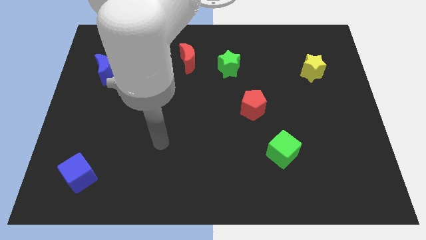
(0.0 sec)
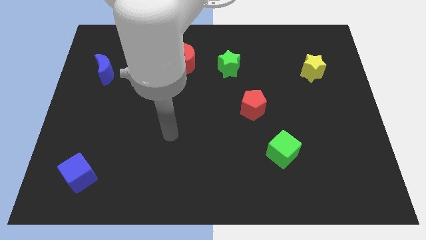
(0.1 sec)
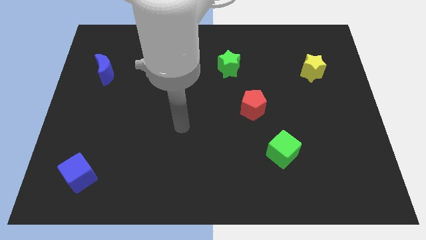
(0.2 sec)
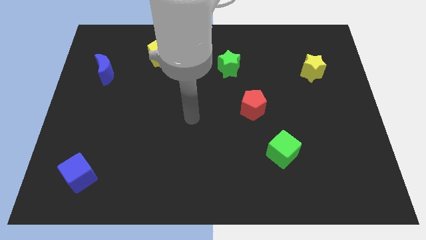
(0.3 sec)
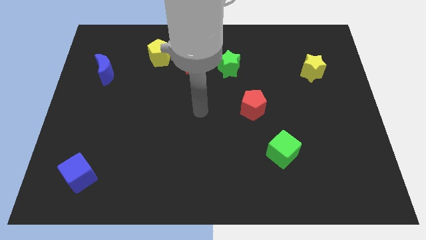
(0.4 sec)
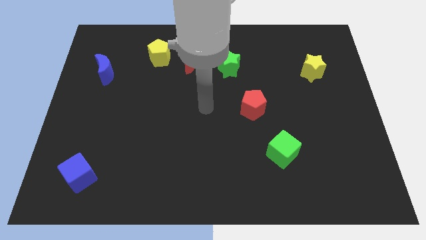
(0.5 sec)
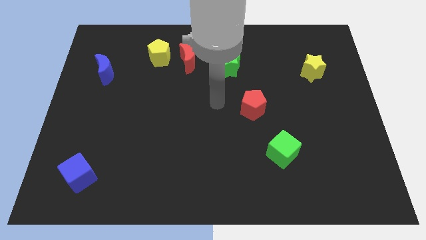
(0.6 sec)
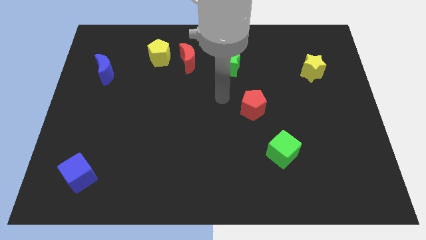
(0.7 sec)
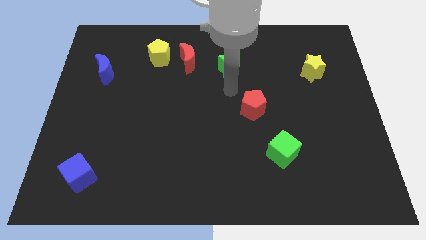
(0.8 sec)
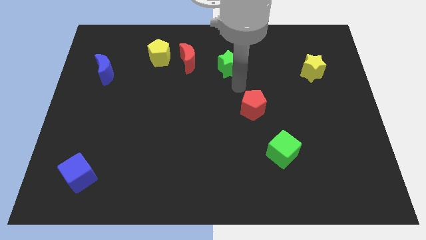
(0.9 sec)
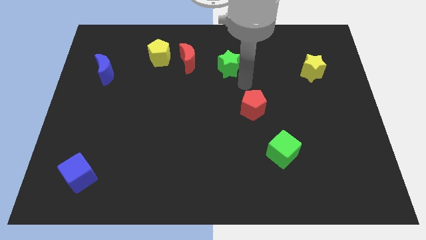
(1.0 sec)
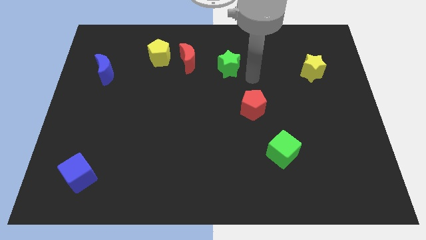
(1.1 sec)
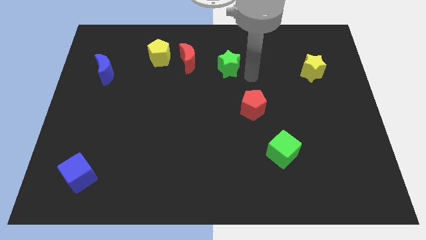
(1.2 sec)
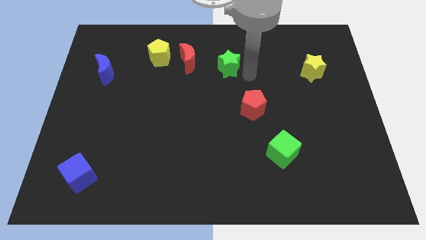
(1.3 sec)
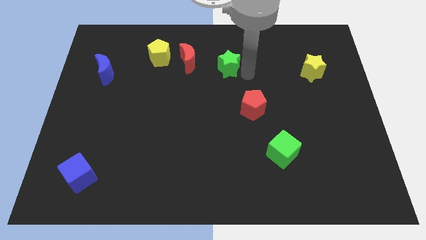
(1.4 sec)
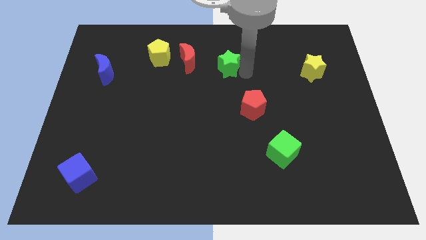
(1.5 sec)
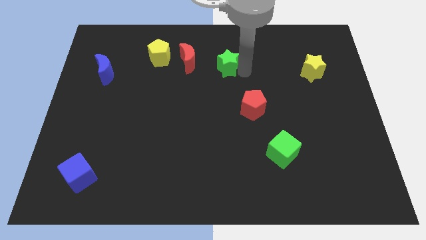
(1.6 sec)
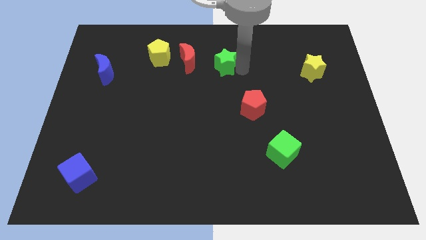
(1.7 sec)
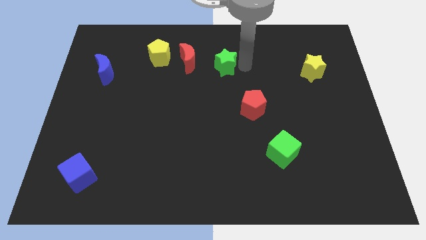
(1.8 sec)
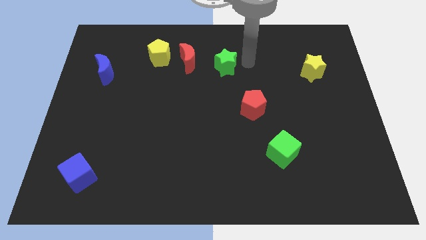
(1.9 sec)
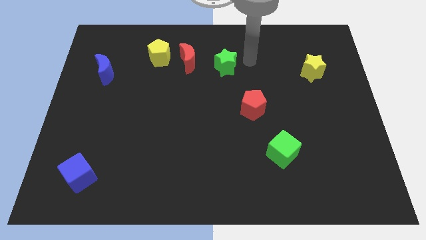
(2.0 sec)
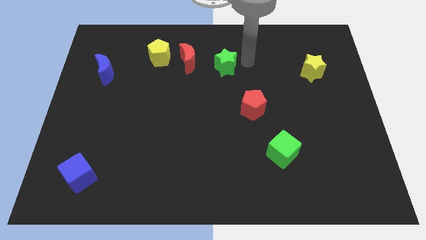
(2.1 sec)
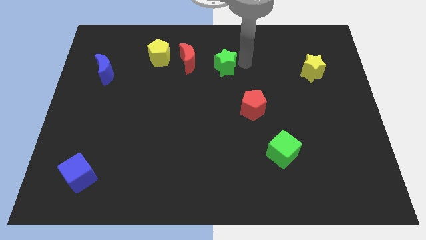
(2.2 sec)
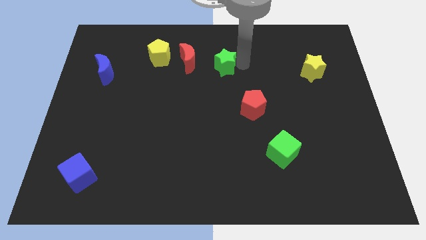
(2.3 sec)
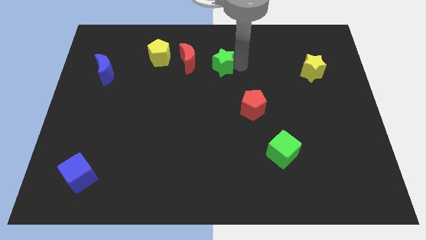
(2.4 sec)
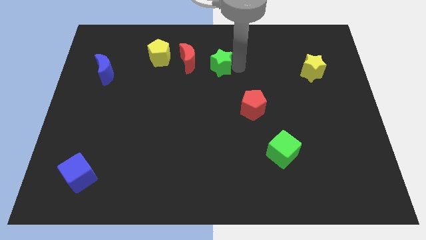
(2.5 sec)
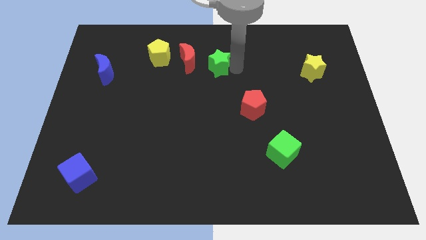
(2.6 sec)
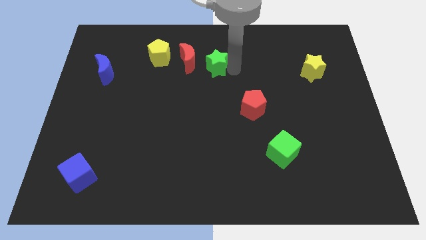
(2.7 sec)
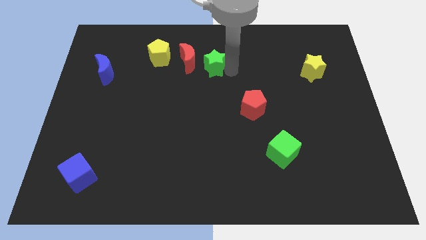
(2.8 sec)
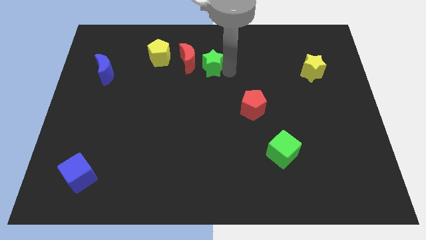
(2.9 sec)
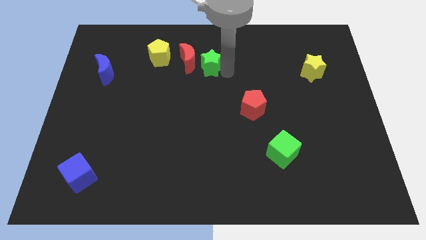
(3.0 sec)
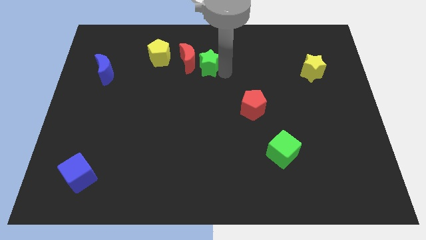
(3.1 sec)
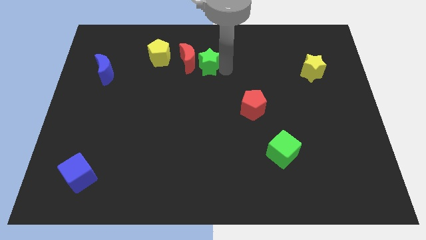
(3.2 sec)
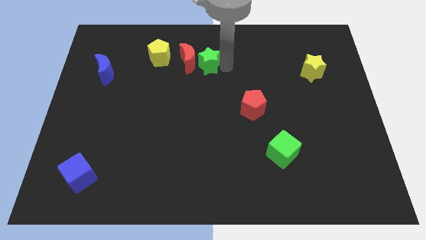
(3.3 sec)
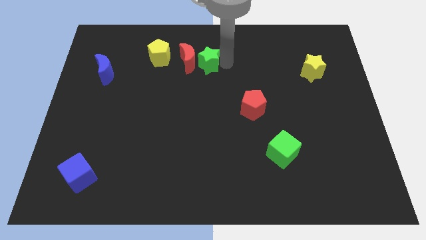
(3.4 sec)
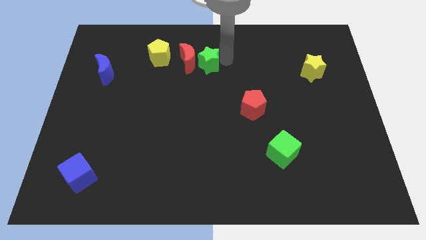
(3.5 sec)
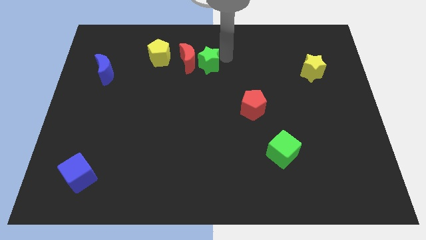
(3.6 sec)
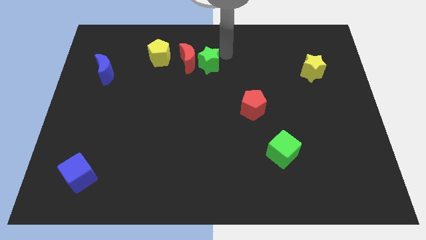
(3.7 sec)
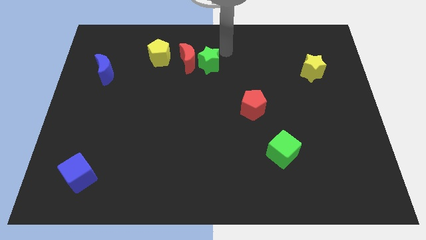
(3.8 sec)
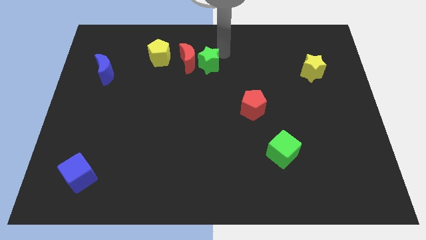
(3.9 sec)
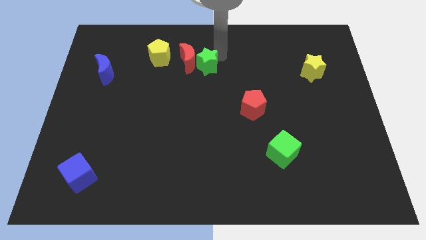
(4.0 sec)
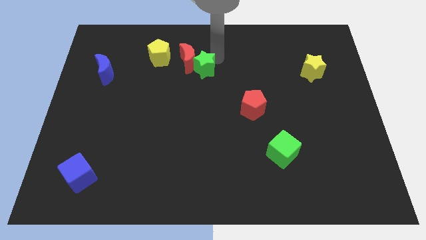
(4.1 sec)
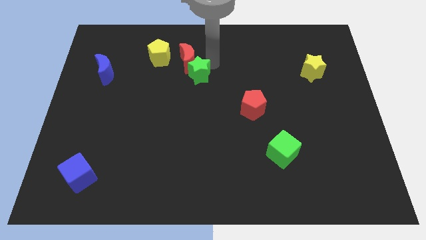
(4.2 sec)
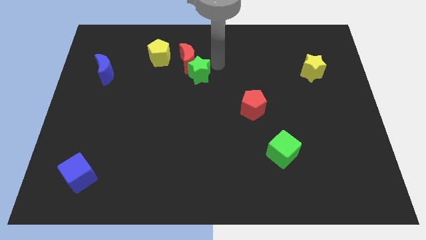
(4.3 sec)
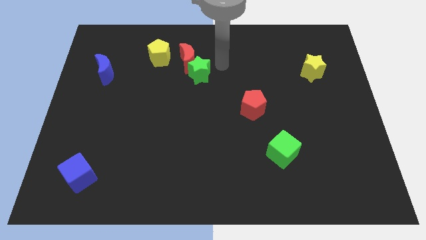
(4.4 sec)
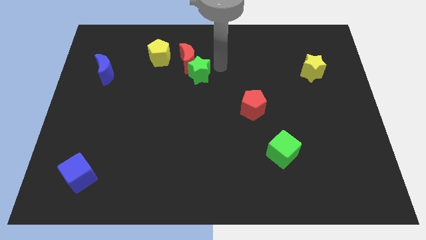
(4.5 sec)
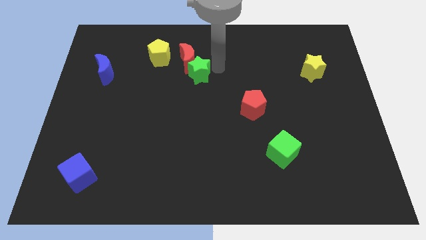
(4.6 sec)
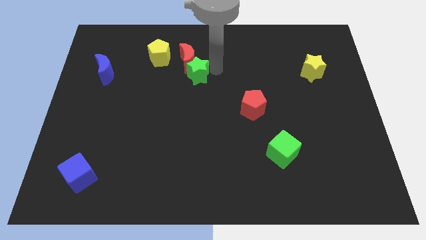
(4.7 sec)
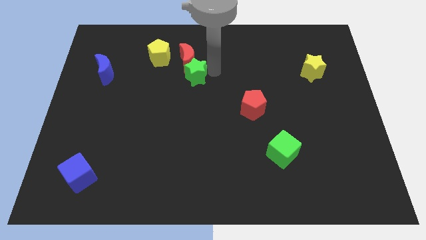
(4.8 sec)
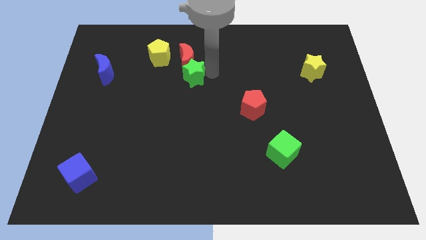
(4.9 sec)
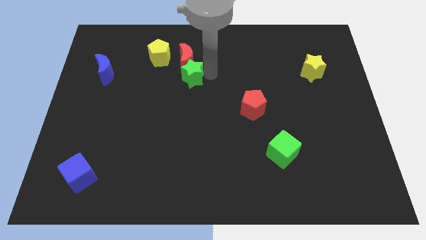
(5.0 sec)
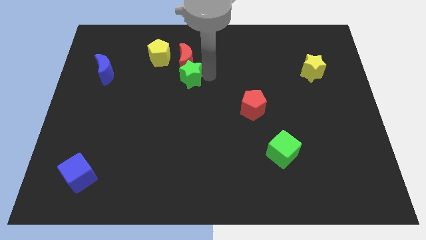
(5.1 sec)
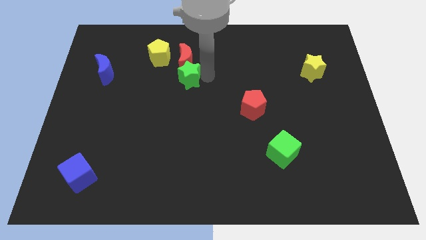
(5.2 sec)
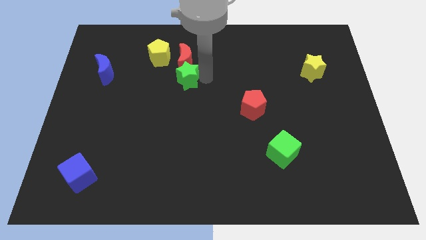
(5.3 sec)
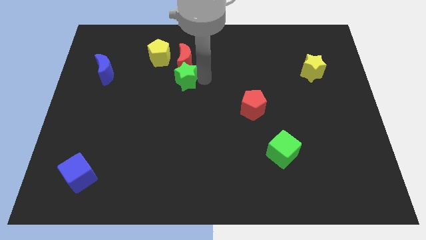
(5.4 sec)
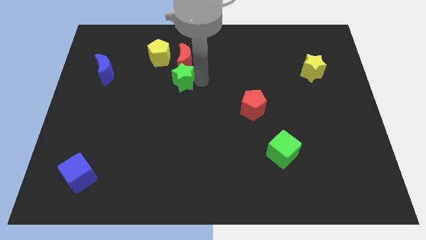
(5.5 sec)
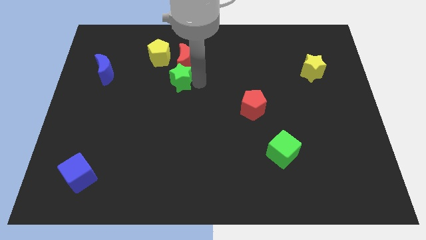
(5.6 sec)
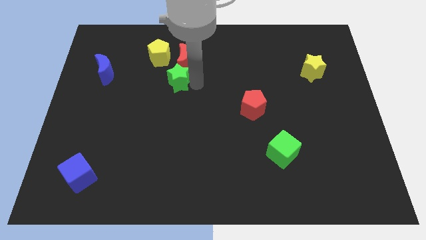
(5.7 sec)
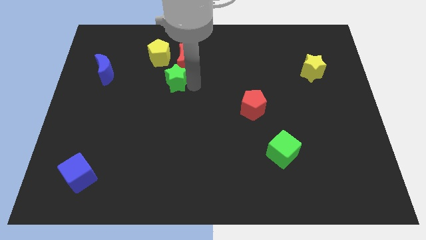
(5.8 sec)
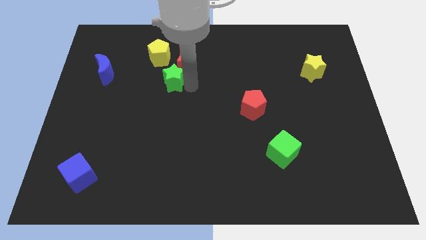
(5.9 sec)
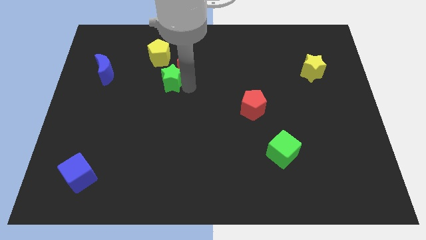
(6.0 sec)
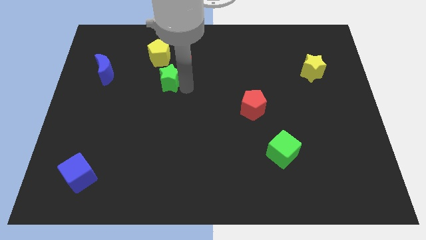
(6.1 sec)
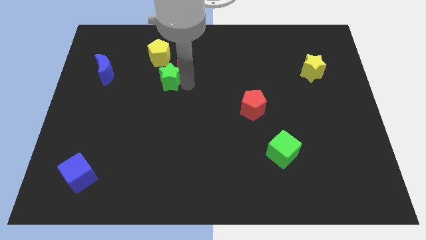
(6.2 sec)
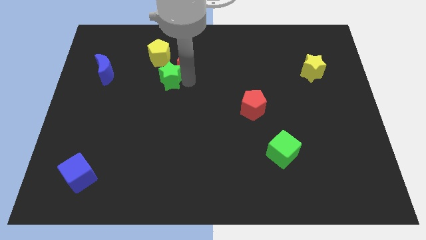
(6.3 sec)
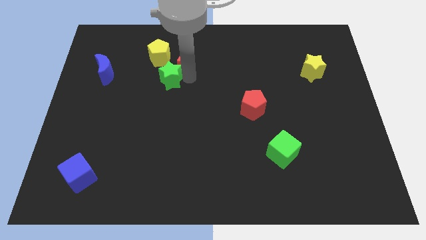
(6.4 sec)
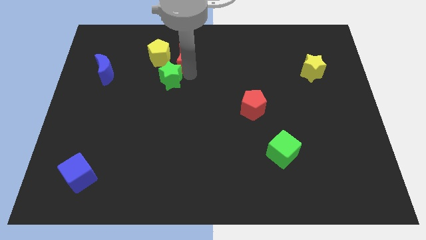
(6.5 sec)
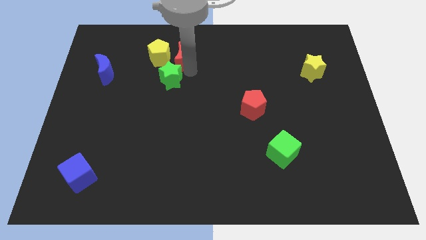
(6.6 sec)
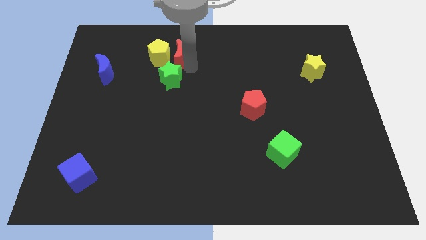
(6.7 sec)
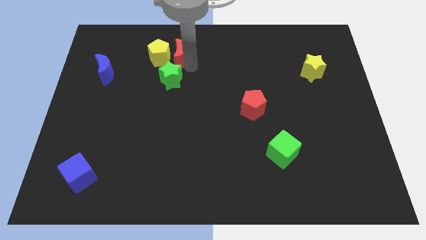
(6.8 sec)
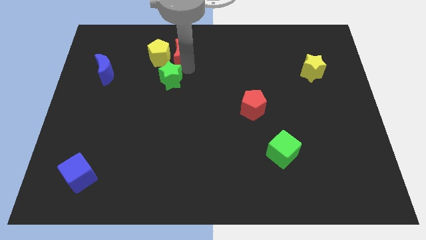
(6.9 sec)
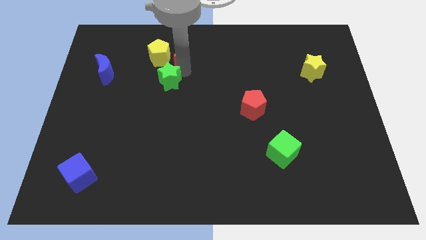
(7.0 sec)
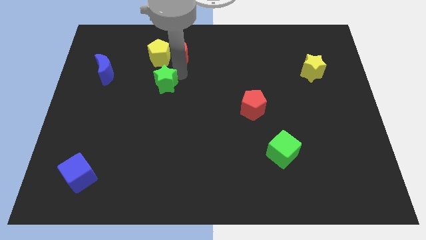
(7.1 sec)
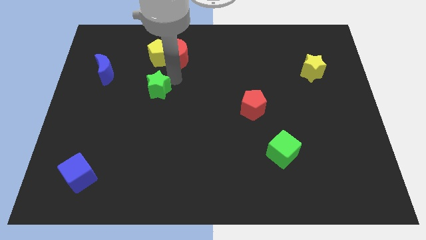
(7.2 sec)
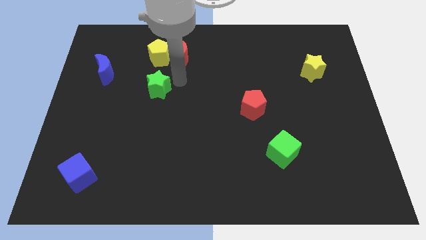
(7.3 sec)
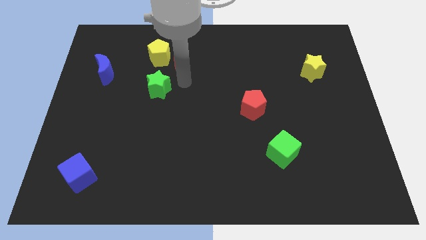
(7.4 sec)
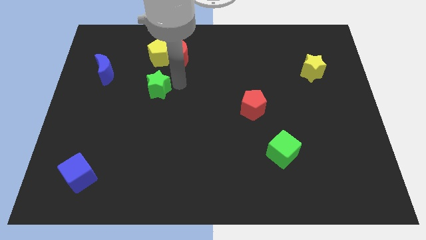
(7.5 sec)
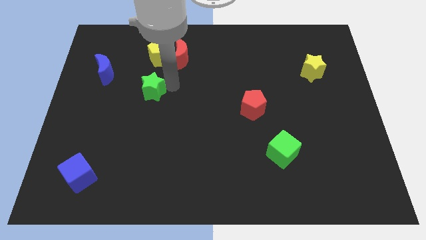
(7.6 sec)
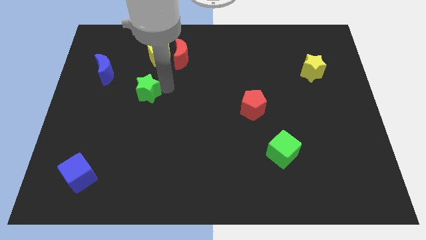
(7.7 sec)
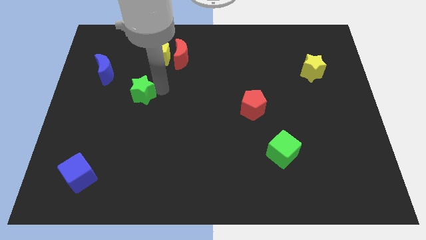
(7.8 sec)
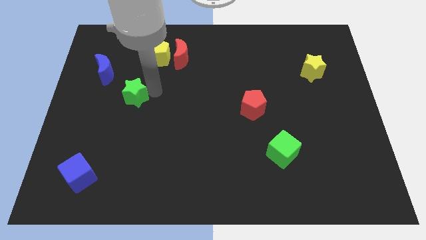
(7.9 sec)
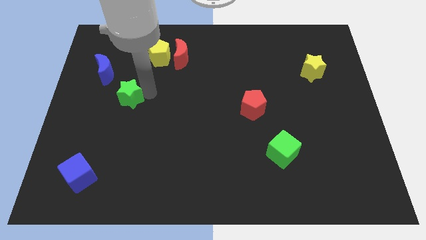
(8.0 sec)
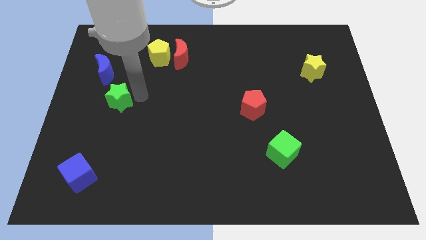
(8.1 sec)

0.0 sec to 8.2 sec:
put the green star to the bottom side of the blue moon
